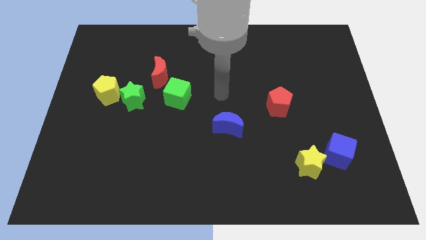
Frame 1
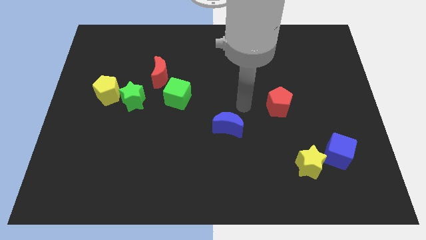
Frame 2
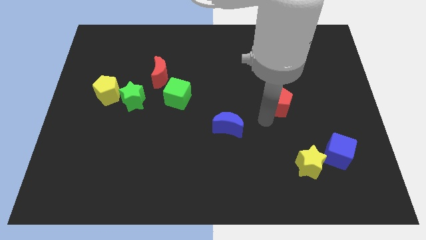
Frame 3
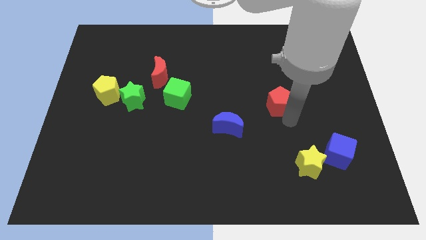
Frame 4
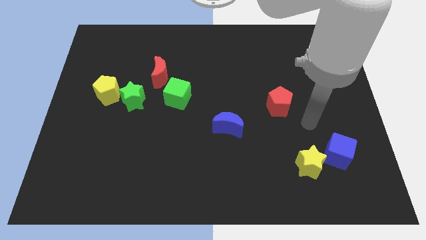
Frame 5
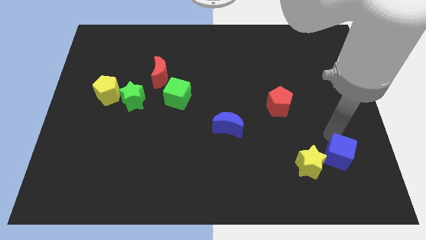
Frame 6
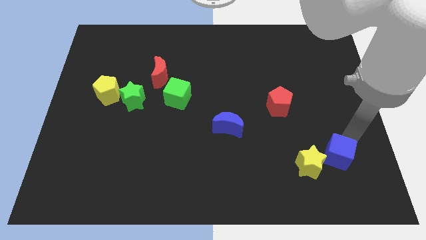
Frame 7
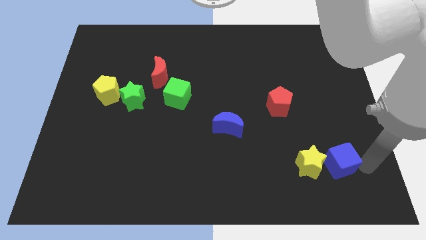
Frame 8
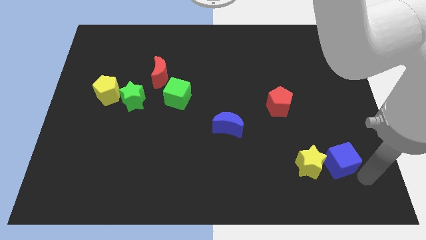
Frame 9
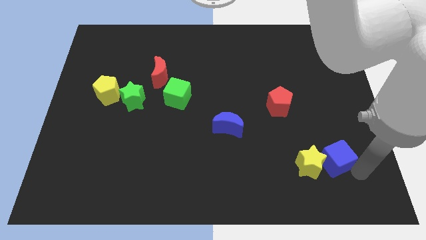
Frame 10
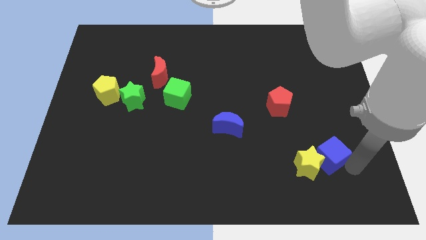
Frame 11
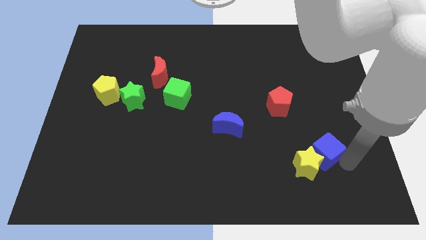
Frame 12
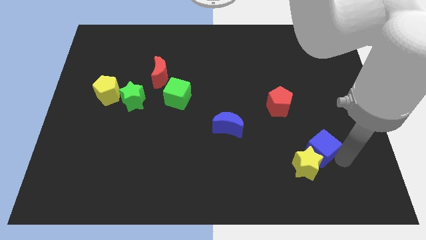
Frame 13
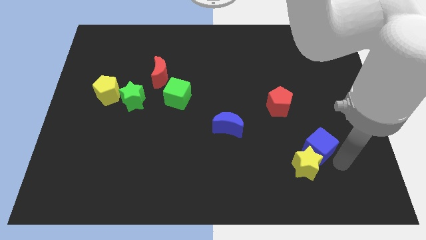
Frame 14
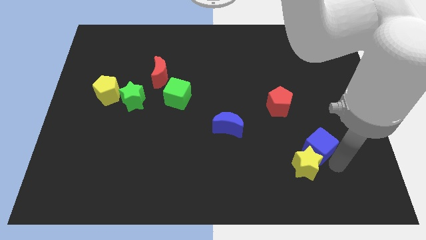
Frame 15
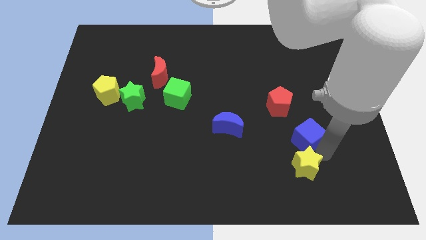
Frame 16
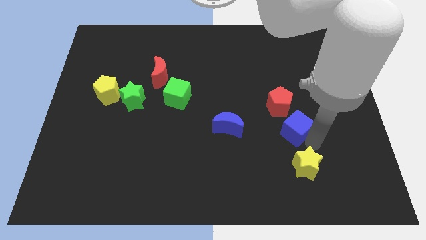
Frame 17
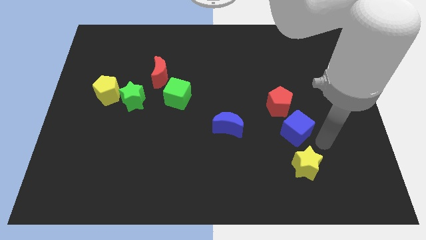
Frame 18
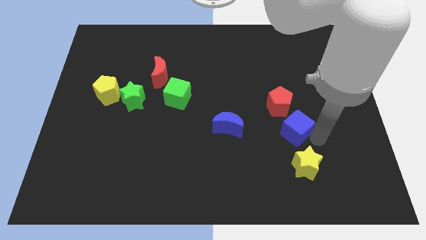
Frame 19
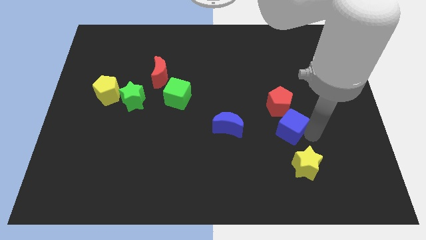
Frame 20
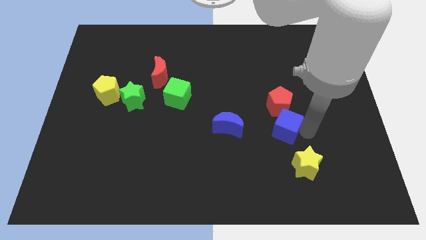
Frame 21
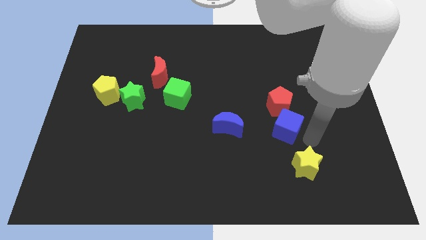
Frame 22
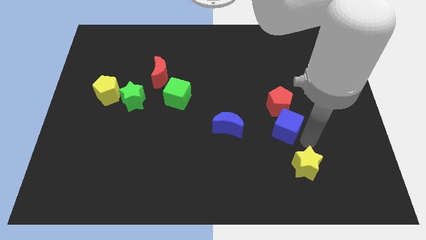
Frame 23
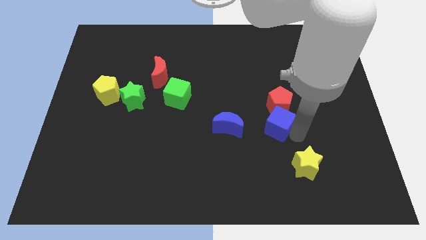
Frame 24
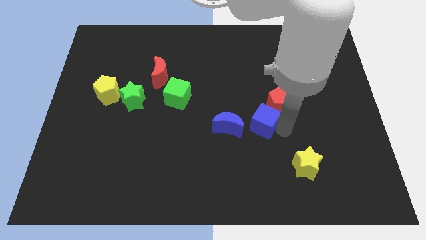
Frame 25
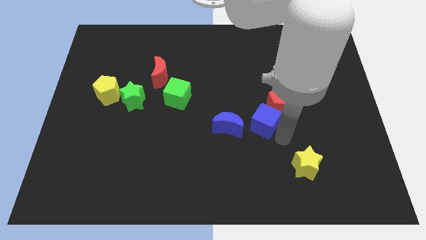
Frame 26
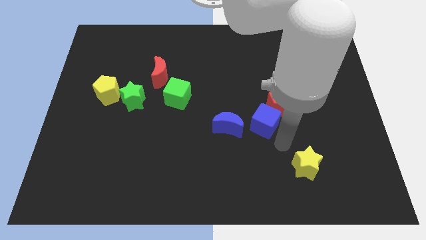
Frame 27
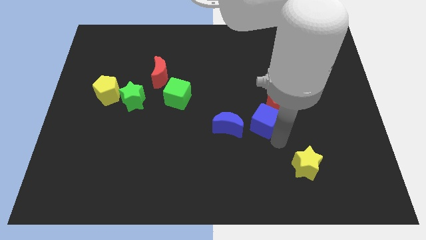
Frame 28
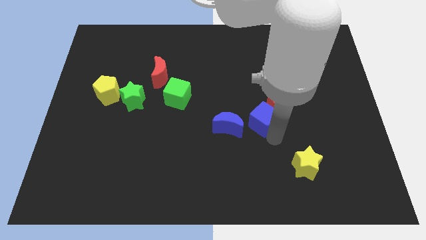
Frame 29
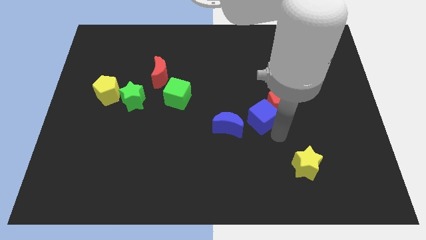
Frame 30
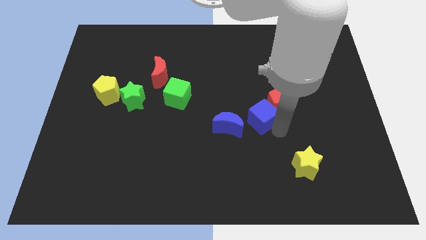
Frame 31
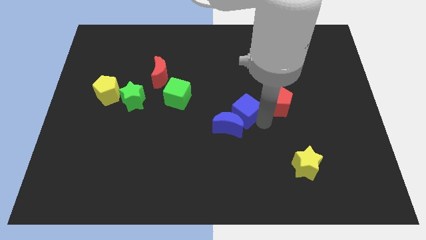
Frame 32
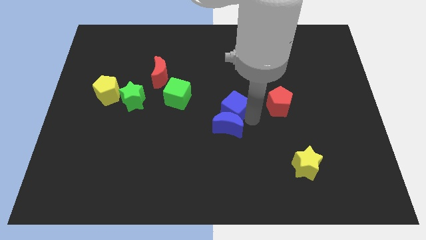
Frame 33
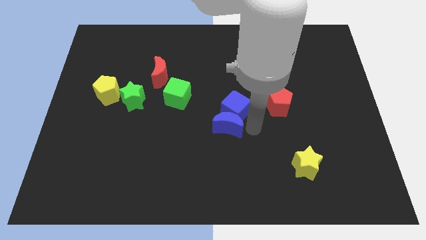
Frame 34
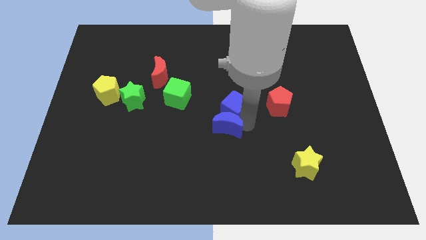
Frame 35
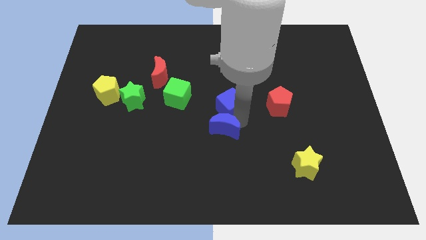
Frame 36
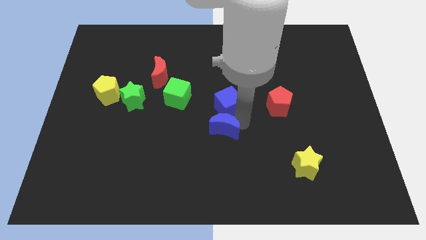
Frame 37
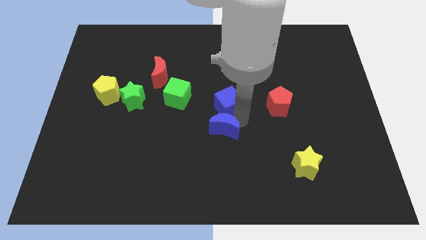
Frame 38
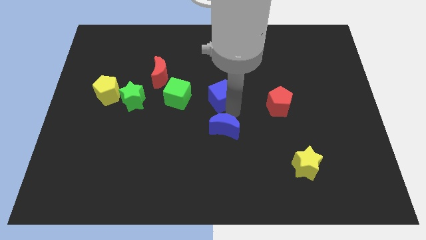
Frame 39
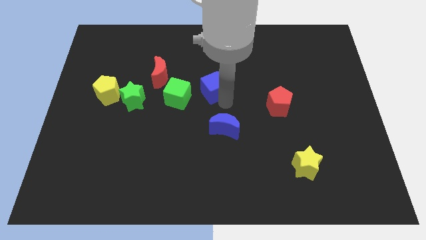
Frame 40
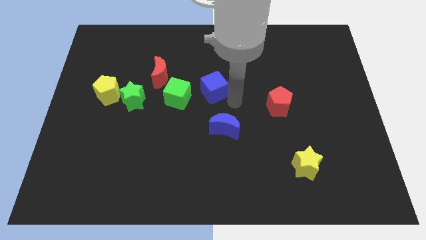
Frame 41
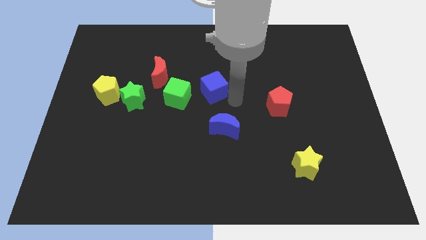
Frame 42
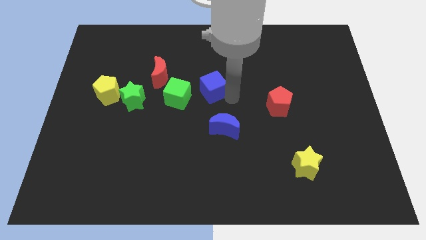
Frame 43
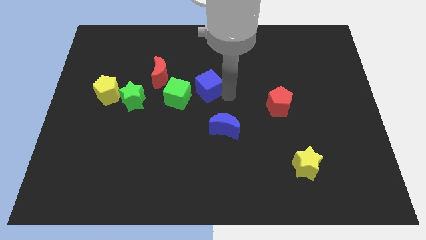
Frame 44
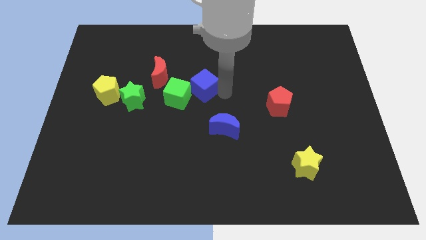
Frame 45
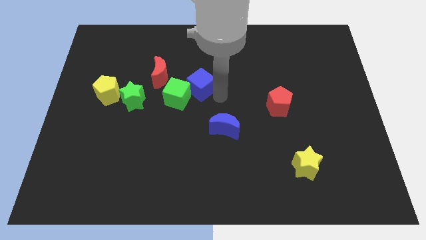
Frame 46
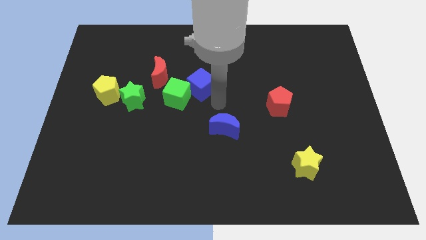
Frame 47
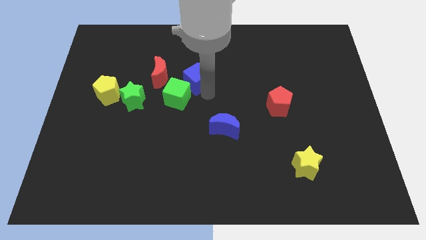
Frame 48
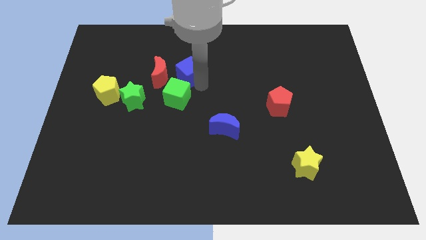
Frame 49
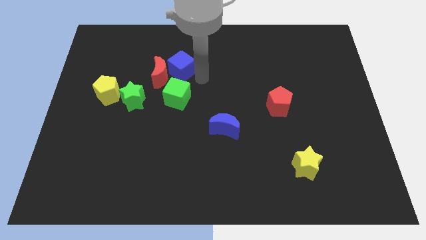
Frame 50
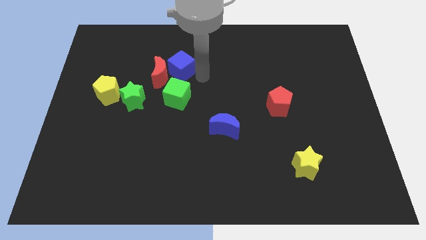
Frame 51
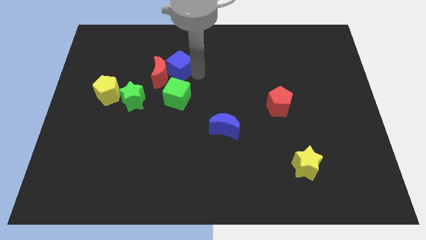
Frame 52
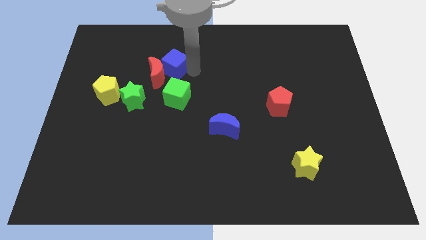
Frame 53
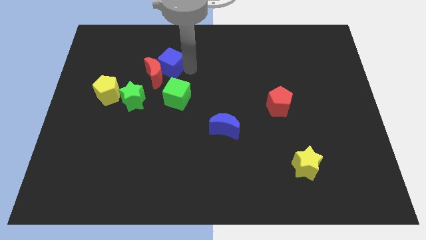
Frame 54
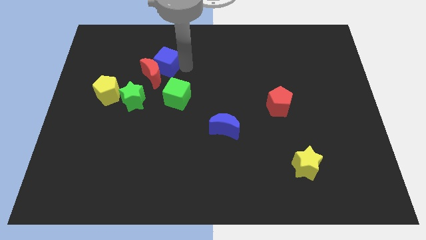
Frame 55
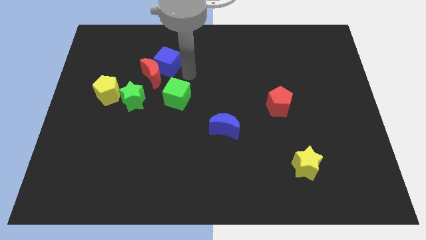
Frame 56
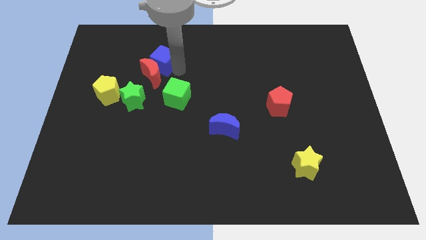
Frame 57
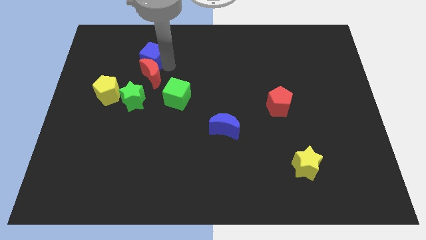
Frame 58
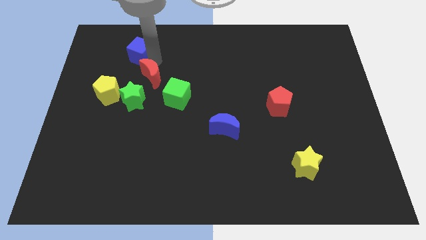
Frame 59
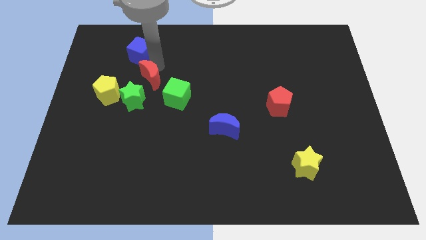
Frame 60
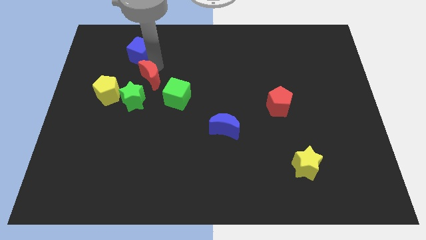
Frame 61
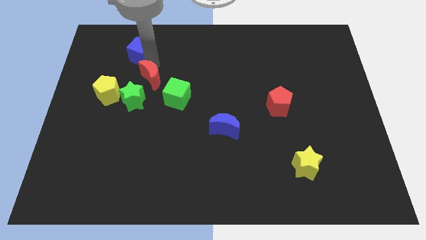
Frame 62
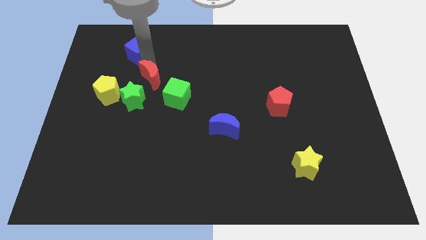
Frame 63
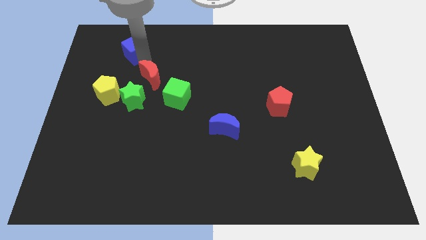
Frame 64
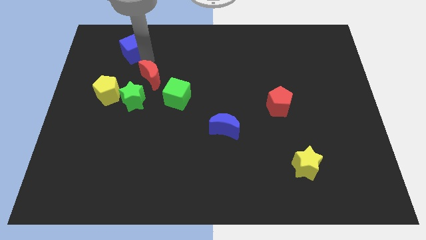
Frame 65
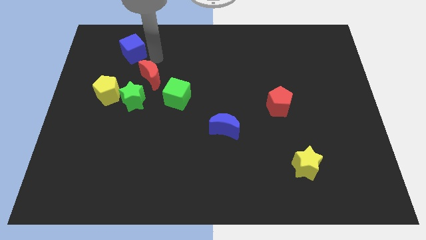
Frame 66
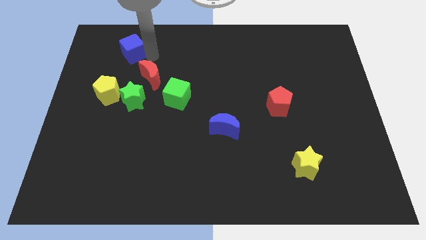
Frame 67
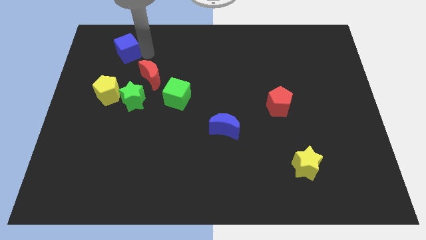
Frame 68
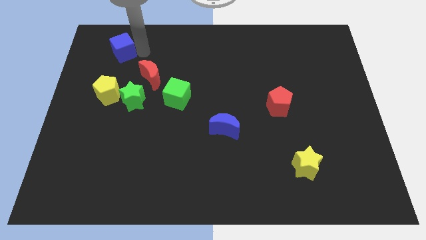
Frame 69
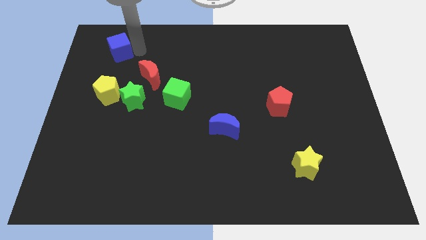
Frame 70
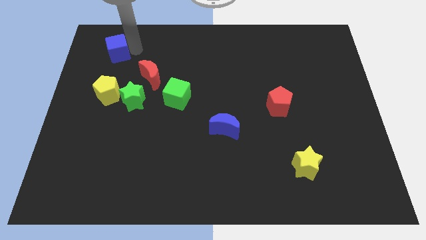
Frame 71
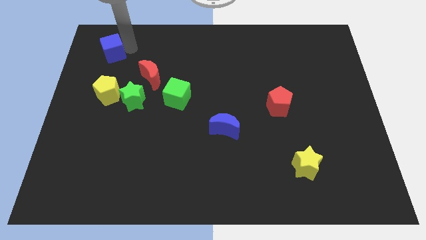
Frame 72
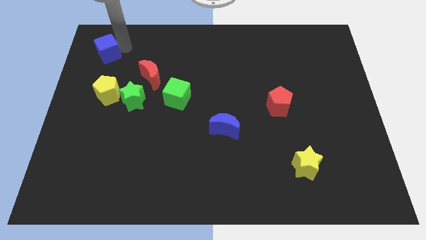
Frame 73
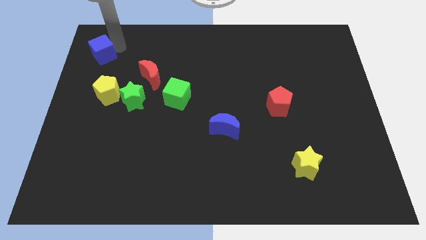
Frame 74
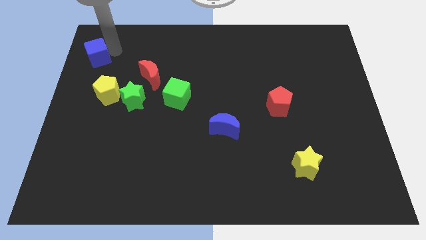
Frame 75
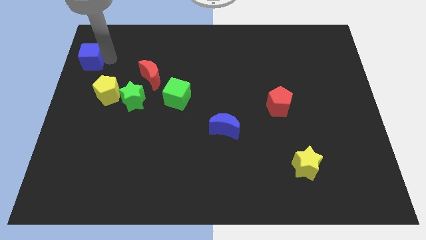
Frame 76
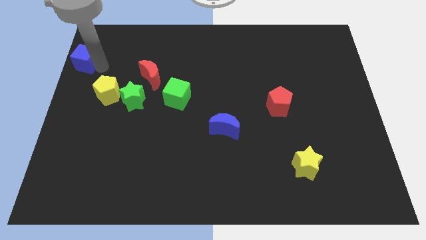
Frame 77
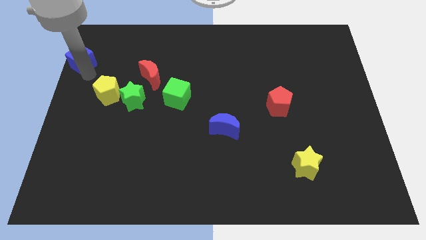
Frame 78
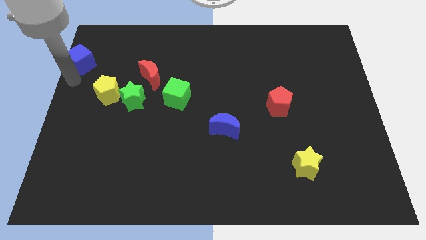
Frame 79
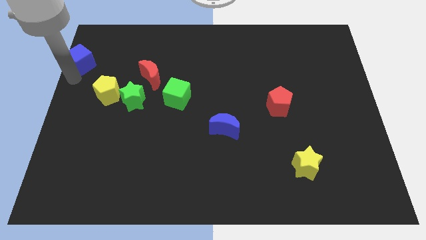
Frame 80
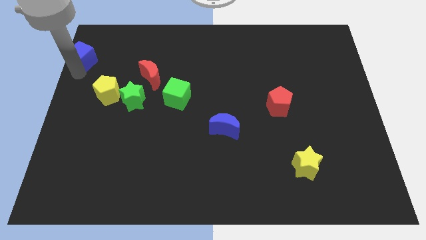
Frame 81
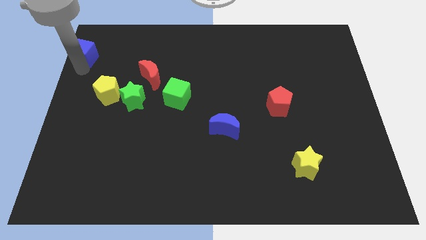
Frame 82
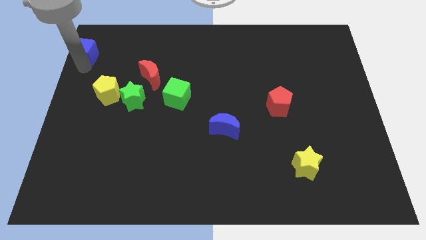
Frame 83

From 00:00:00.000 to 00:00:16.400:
push the blue cube to the upper left corner
